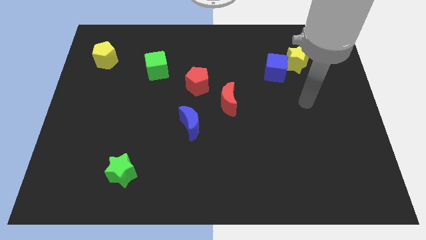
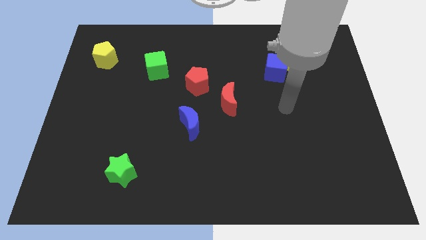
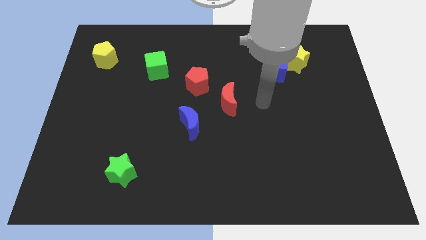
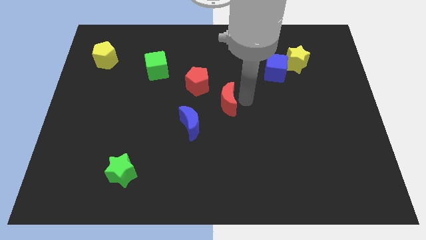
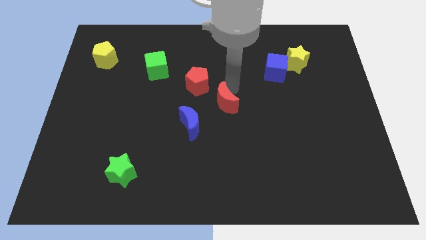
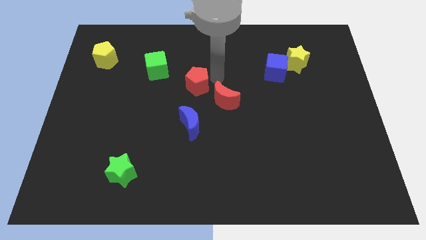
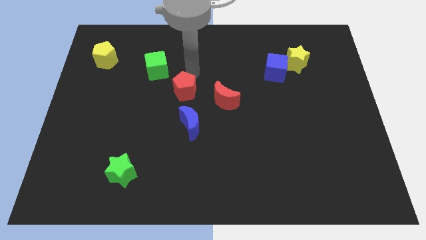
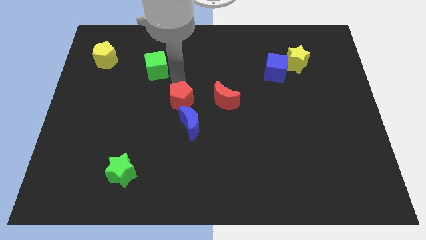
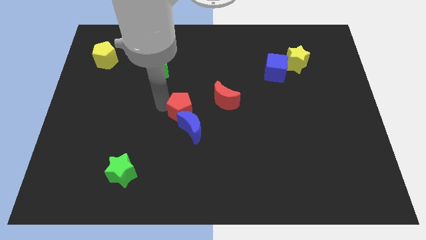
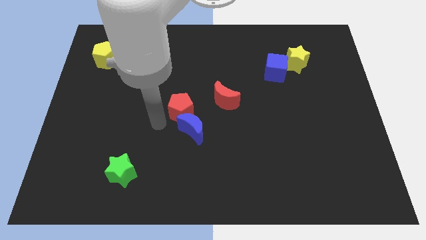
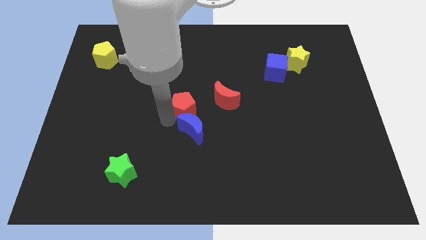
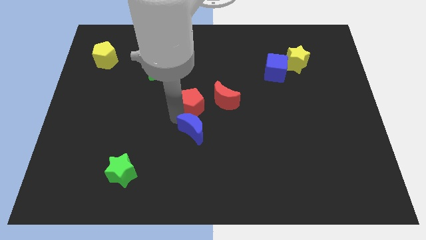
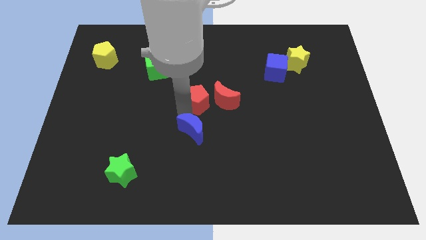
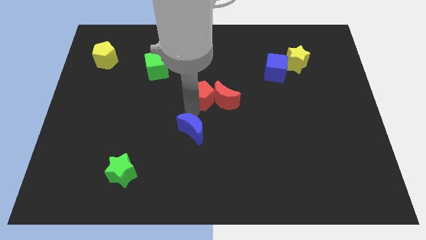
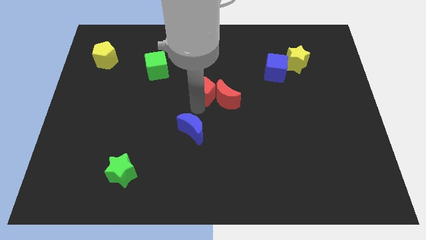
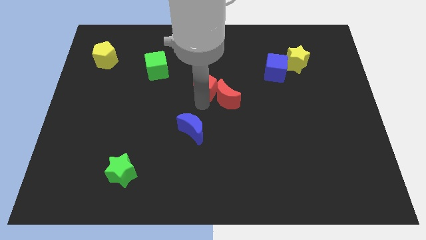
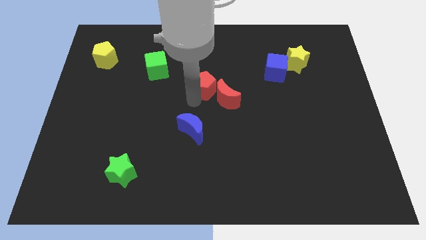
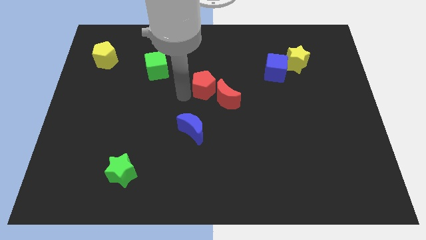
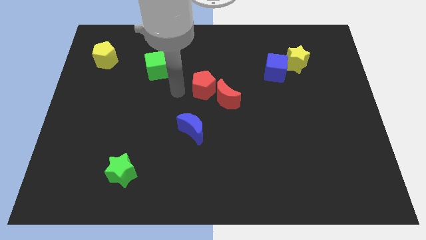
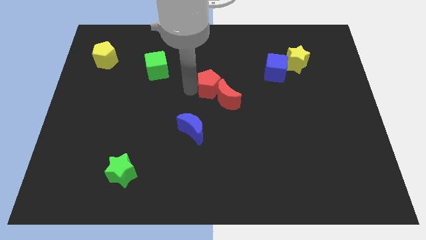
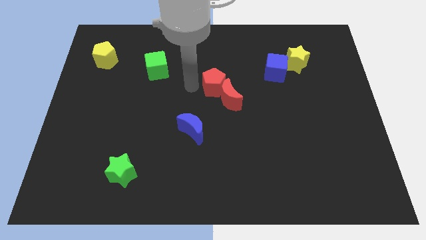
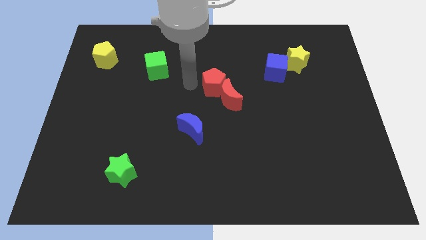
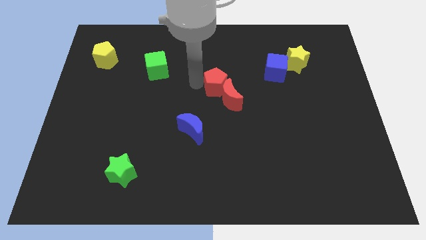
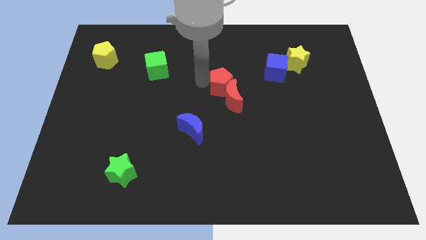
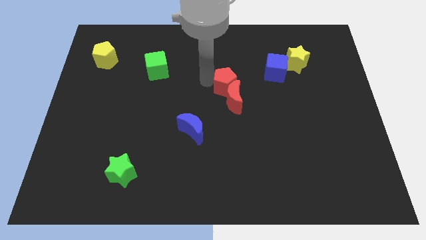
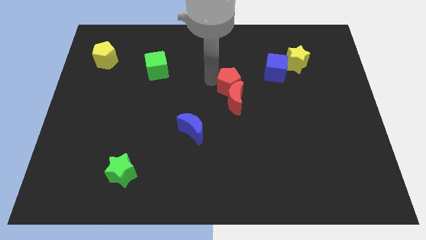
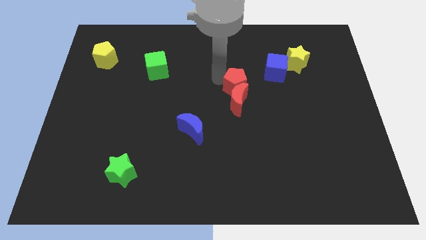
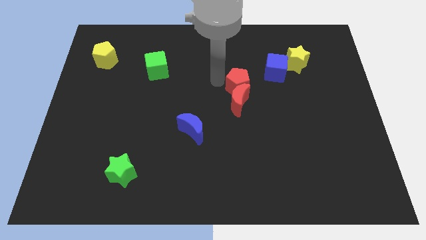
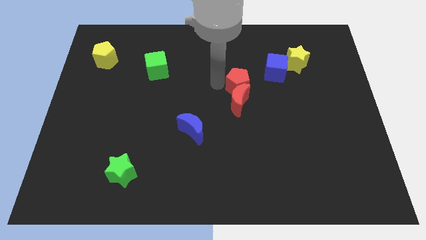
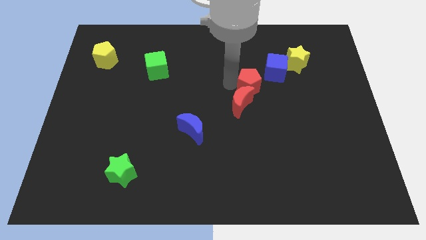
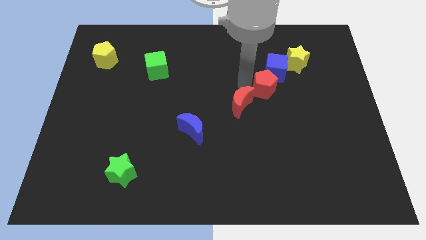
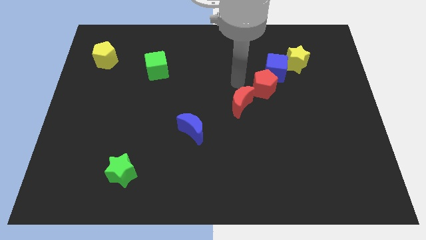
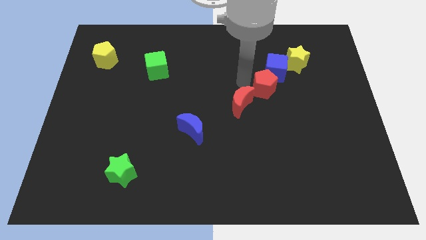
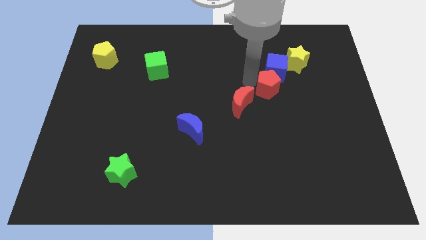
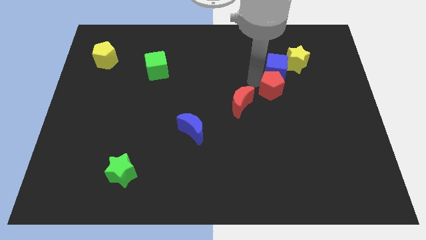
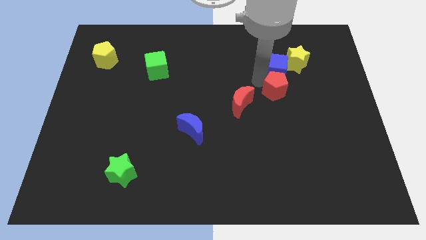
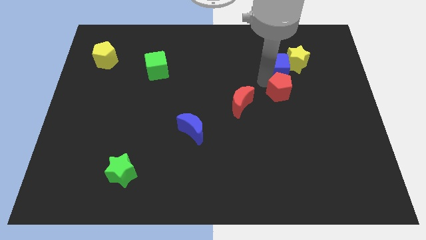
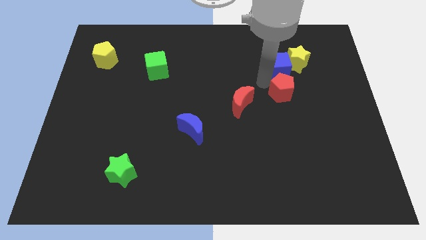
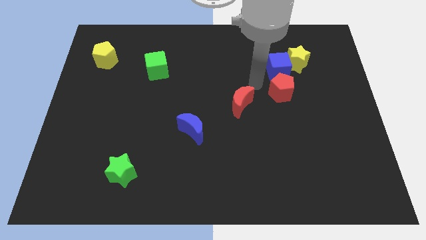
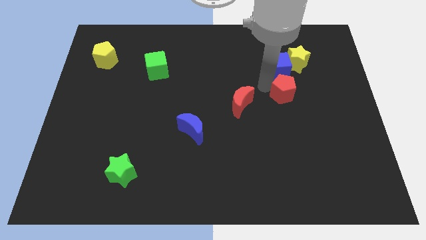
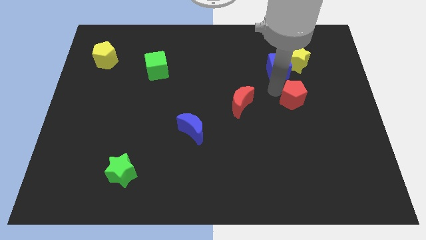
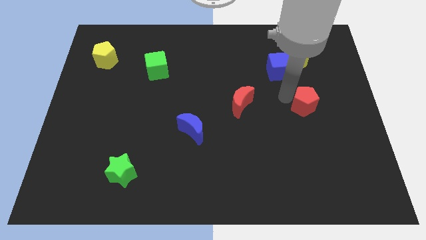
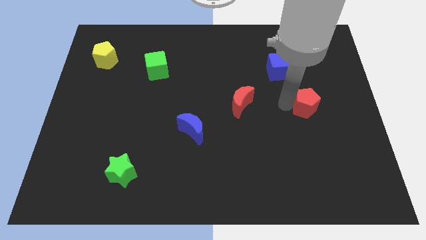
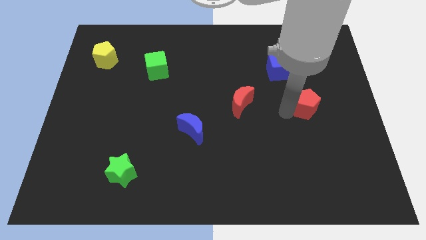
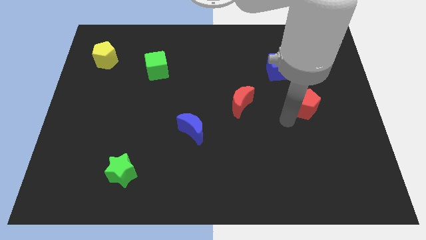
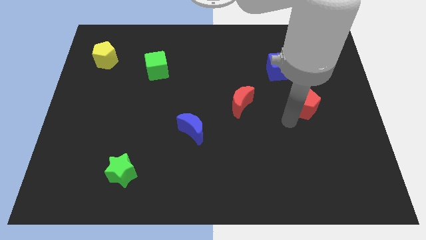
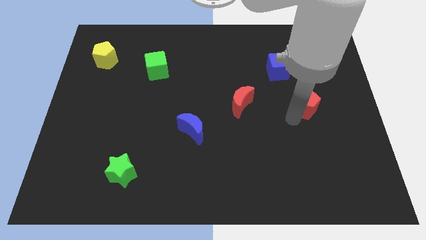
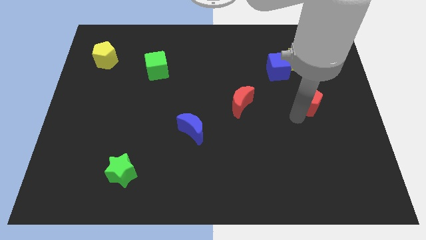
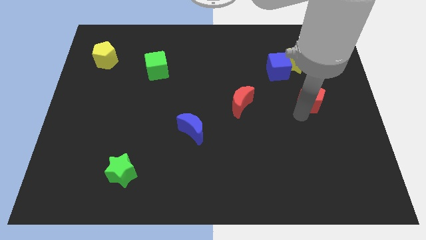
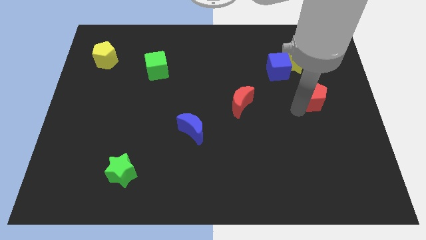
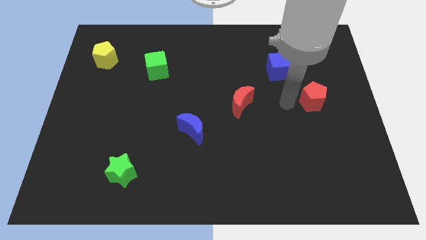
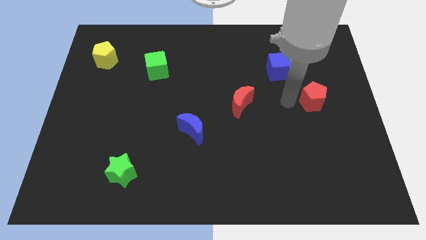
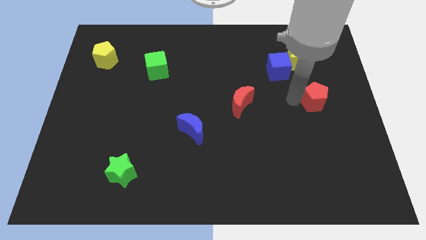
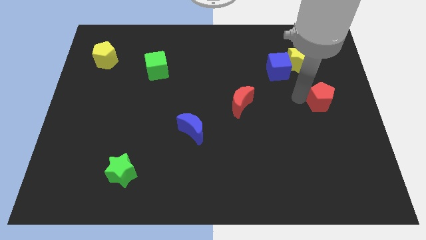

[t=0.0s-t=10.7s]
put the red pentagon to the right side of the board

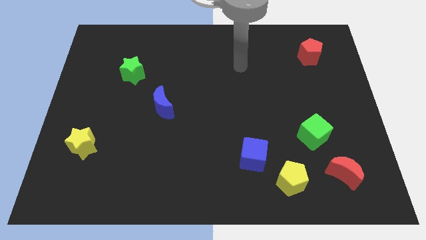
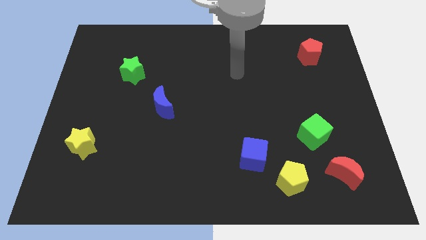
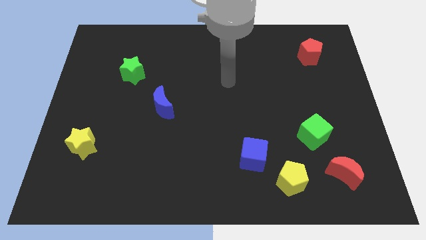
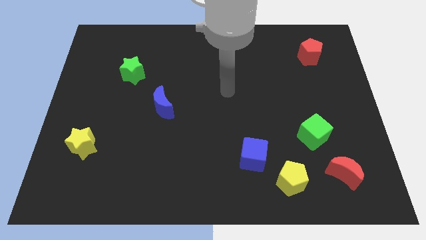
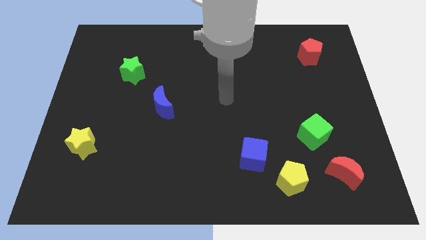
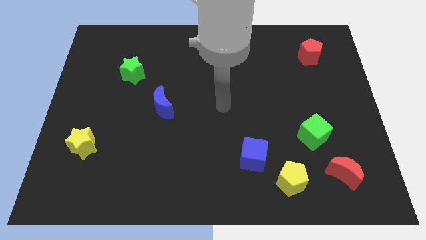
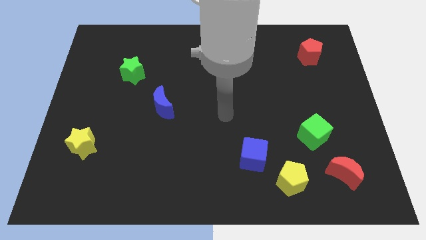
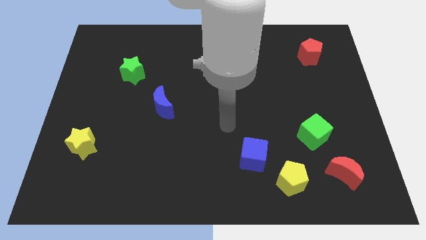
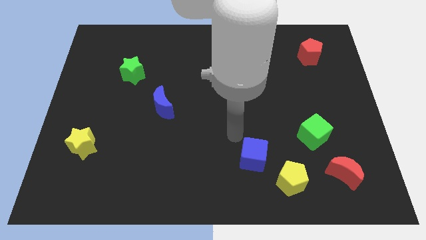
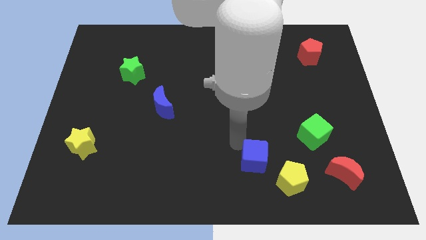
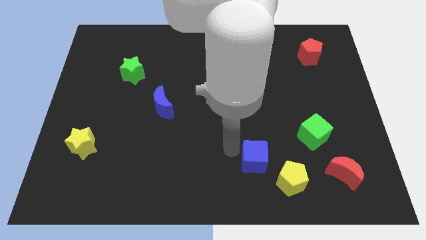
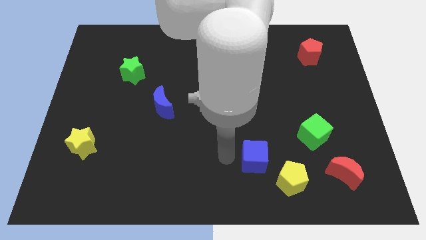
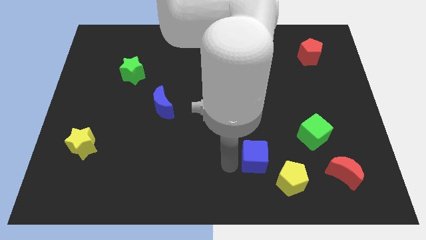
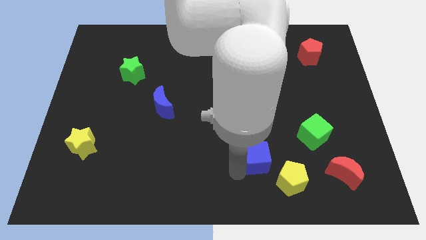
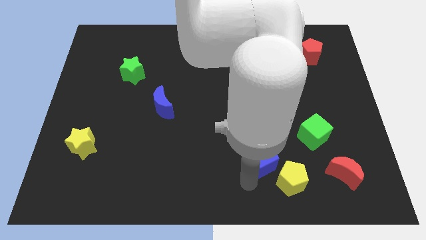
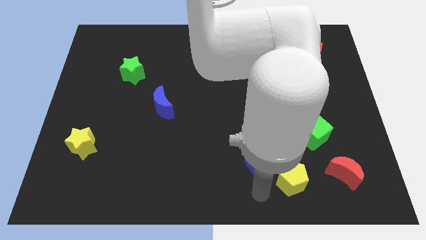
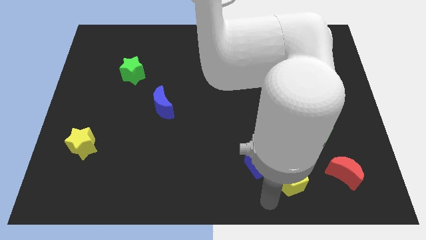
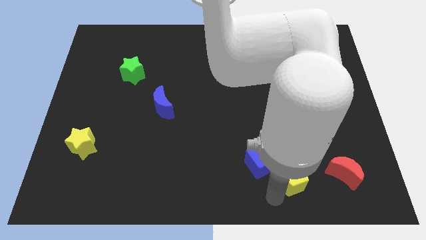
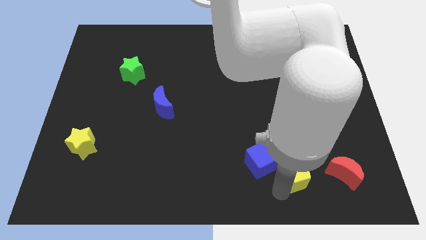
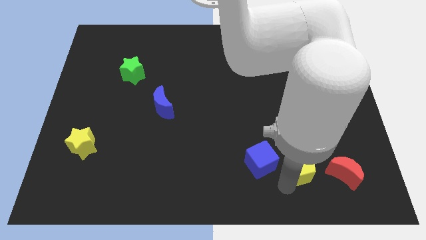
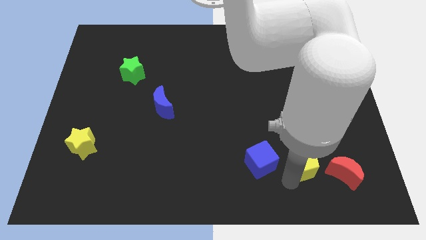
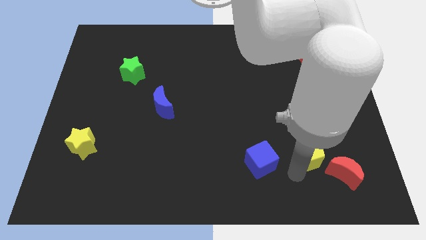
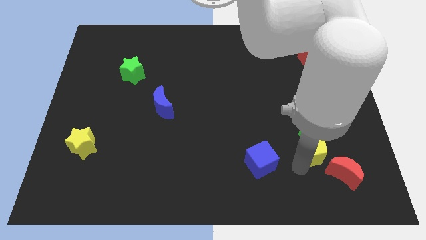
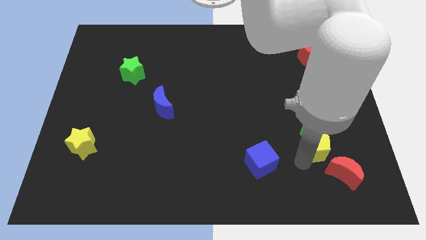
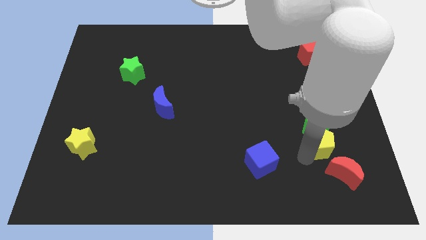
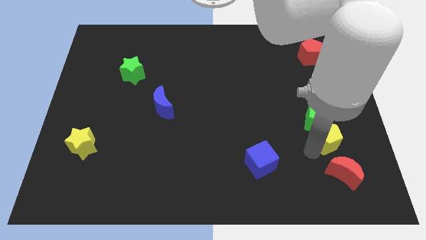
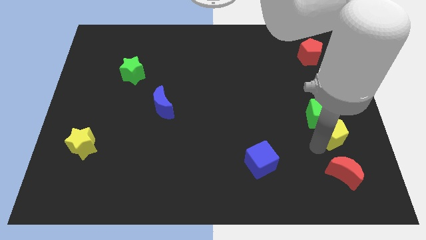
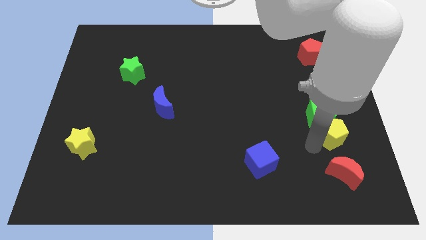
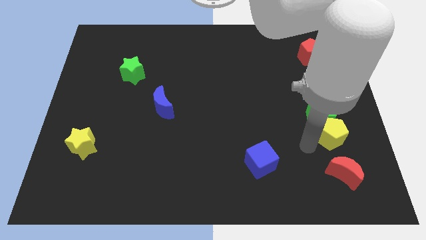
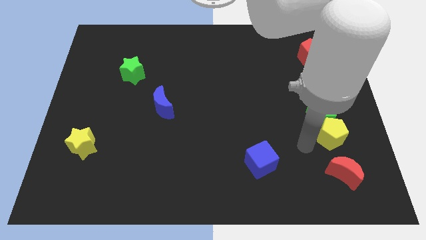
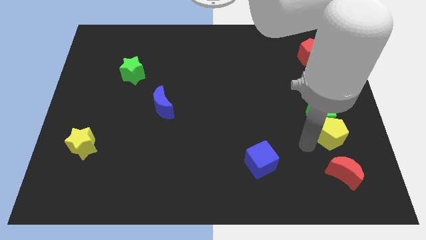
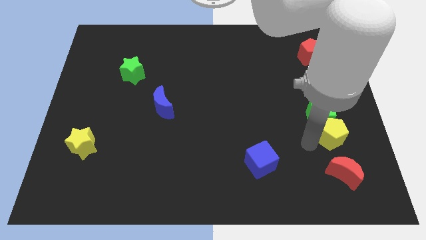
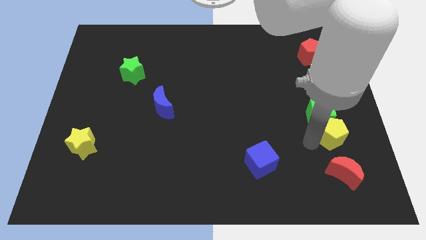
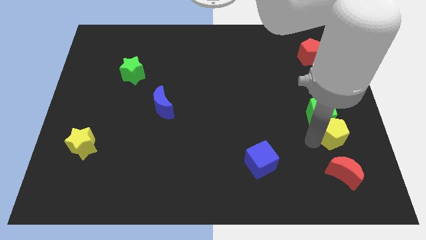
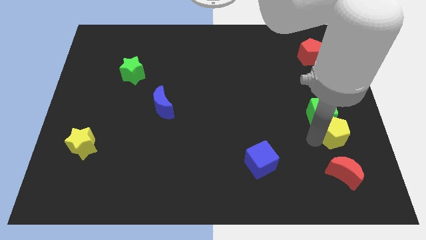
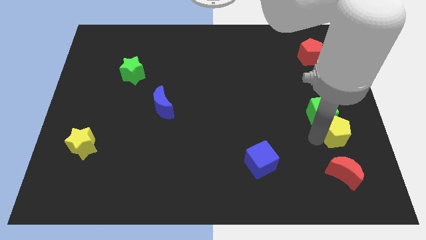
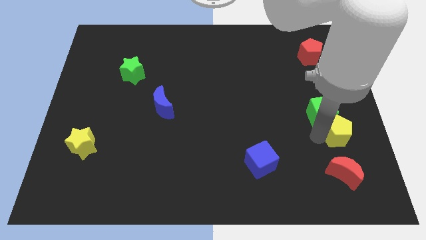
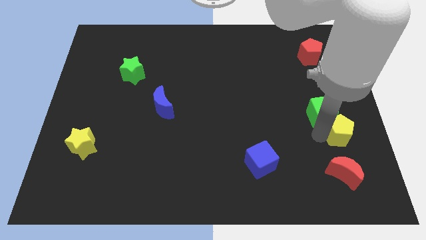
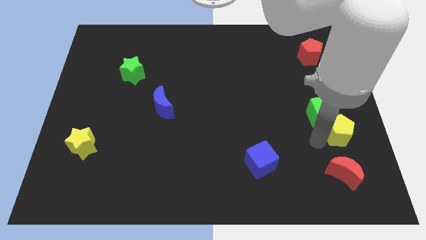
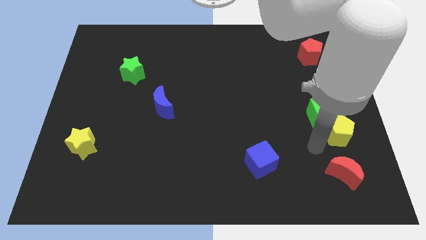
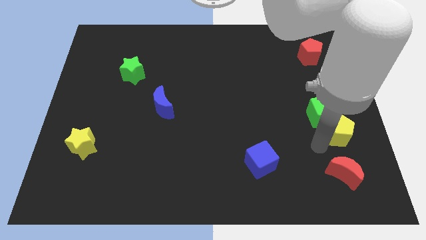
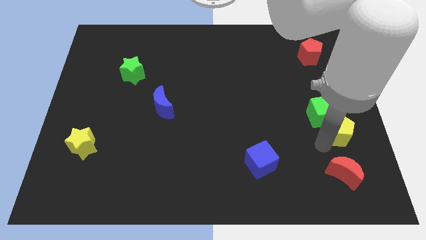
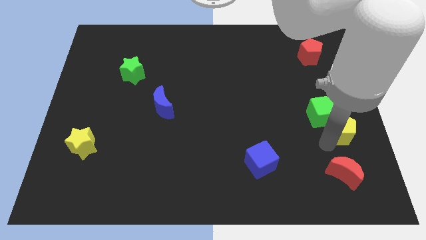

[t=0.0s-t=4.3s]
move the yellow pentagon to the right side of the board
